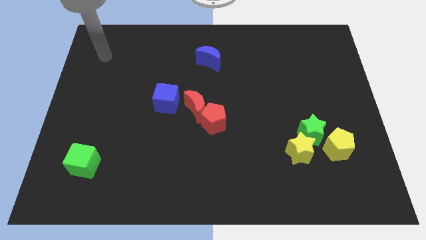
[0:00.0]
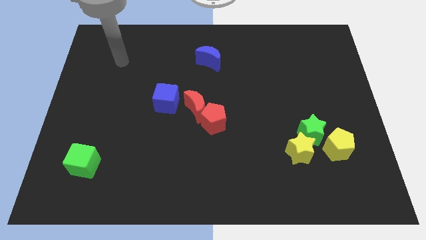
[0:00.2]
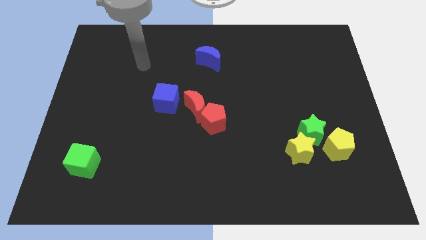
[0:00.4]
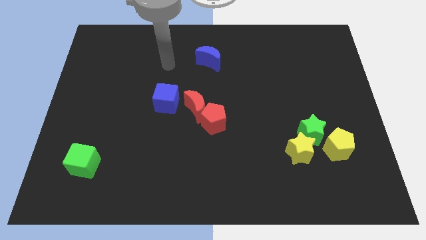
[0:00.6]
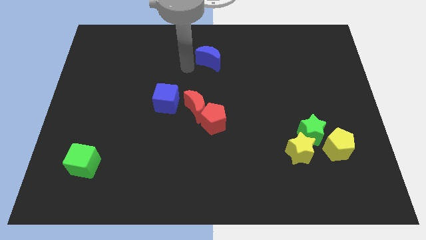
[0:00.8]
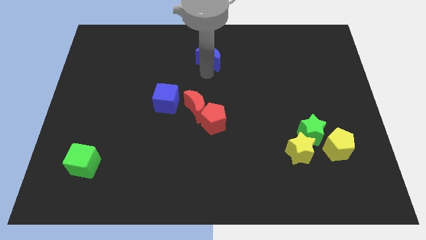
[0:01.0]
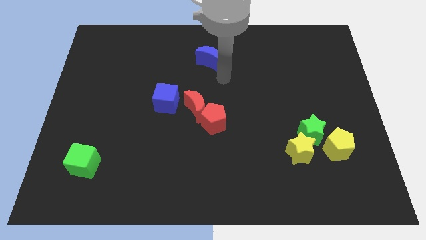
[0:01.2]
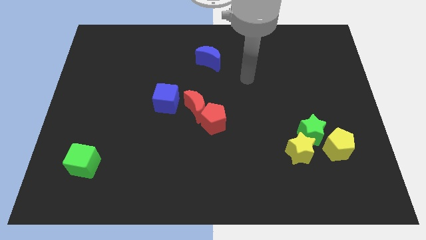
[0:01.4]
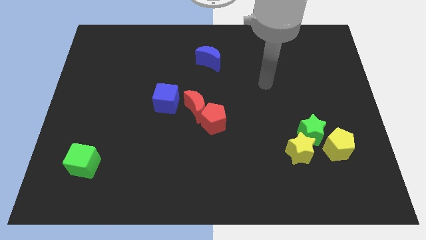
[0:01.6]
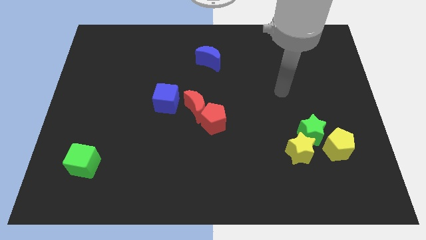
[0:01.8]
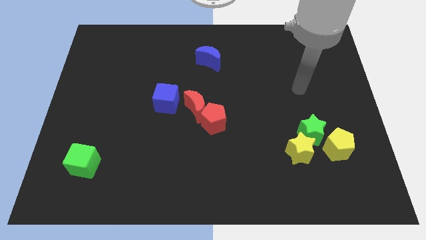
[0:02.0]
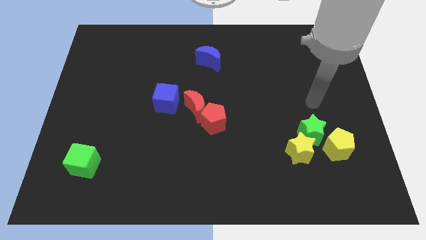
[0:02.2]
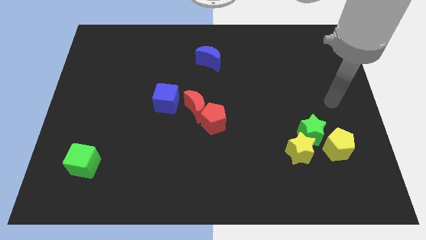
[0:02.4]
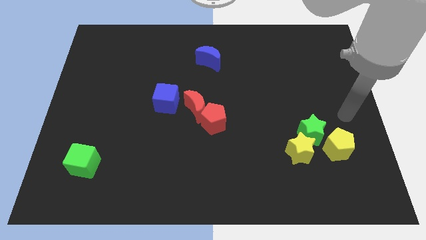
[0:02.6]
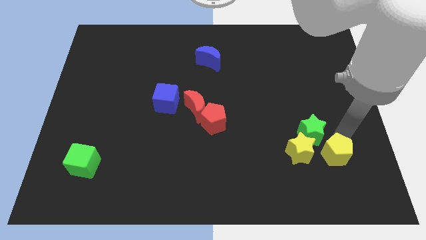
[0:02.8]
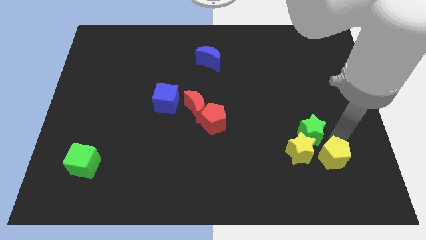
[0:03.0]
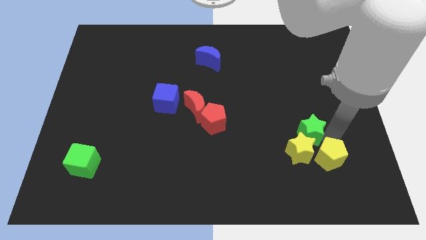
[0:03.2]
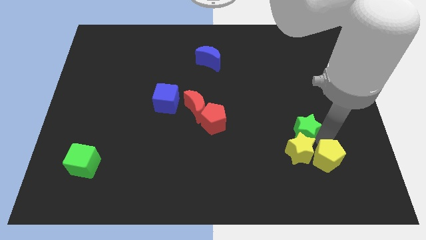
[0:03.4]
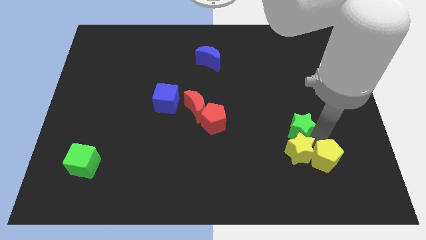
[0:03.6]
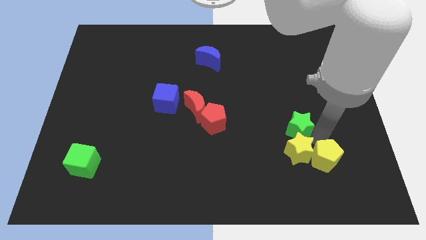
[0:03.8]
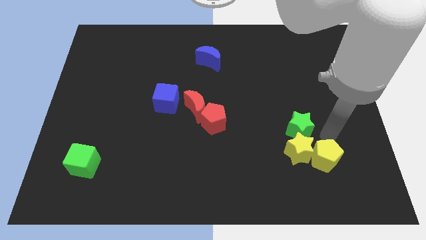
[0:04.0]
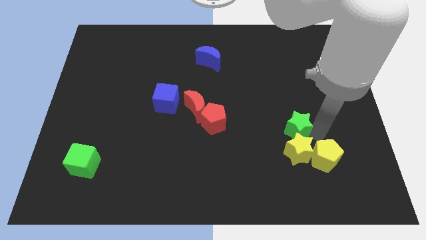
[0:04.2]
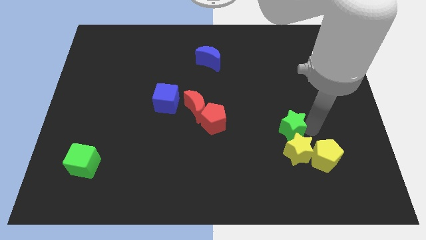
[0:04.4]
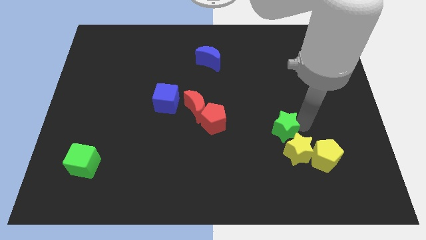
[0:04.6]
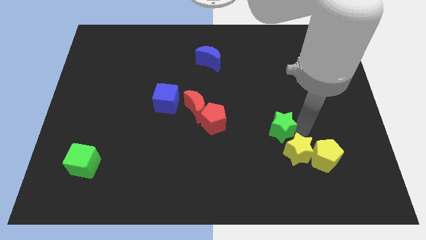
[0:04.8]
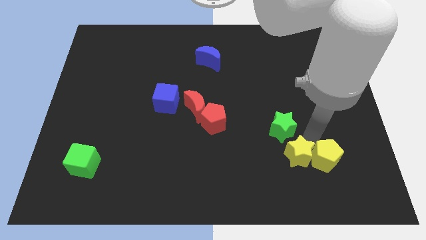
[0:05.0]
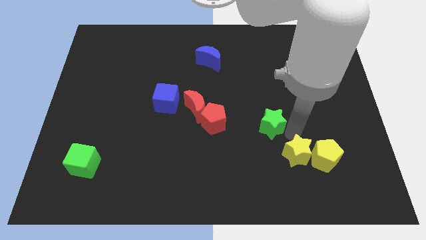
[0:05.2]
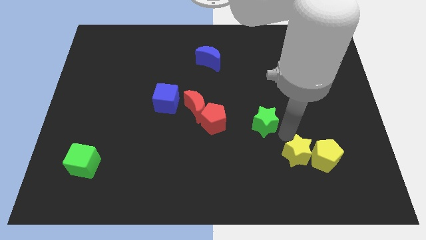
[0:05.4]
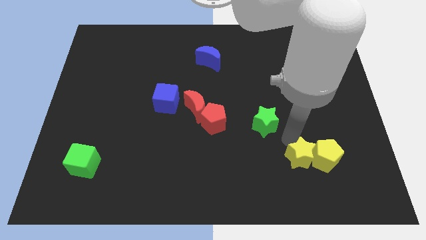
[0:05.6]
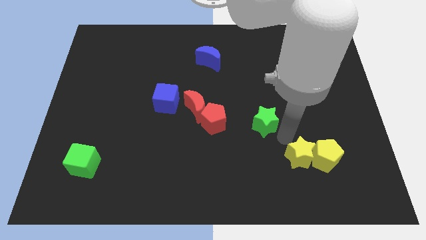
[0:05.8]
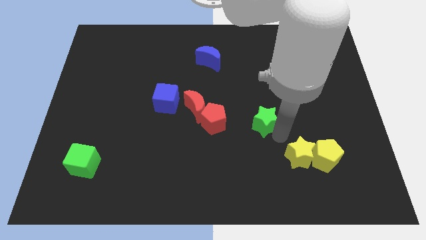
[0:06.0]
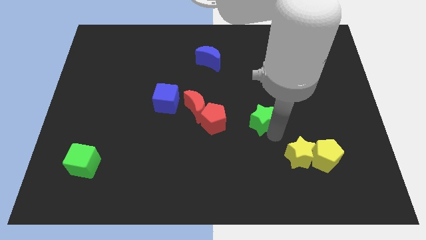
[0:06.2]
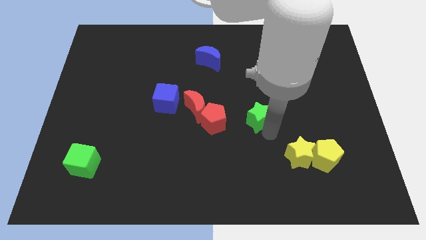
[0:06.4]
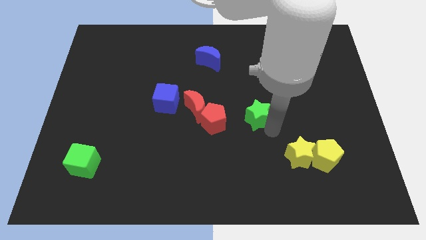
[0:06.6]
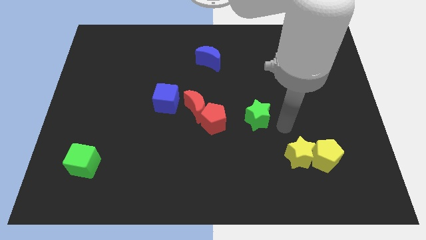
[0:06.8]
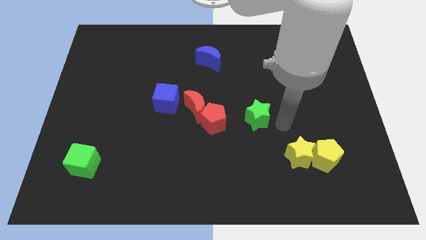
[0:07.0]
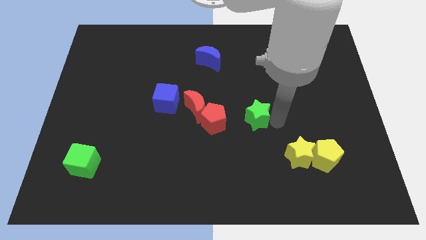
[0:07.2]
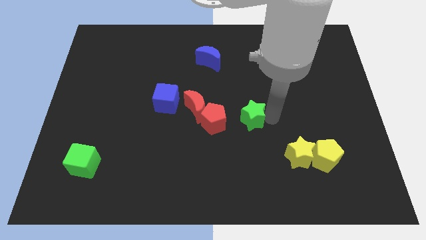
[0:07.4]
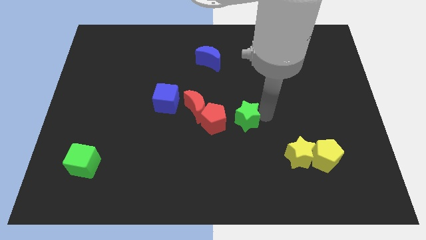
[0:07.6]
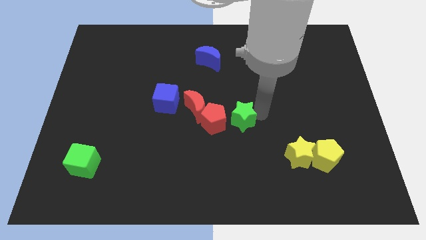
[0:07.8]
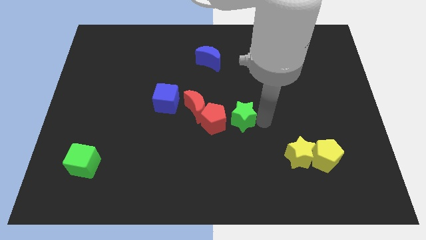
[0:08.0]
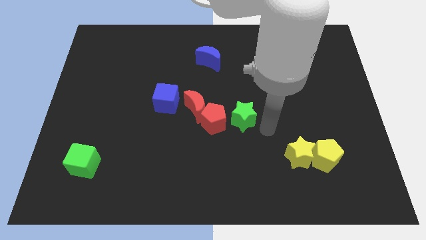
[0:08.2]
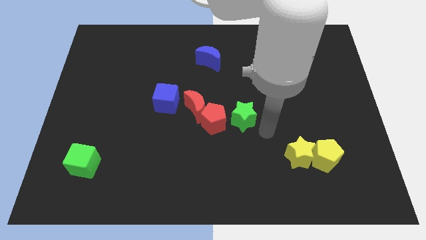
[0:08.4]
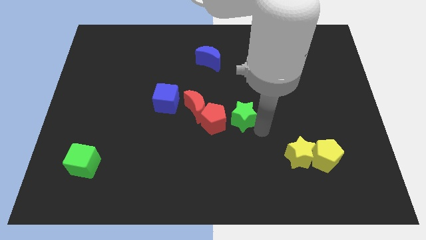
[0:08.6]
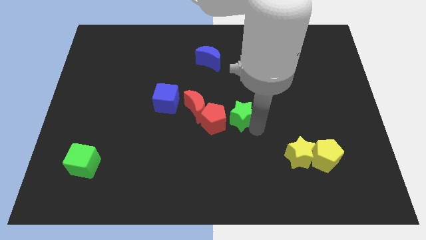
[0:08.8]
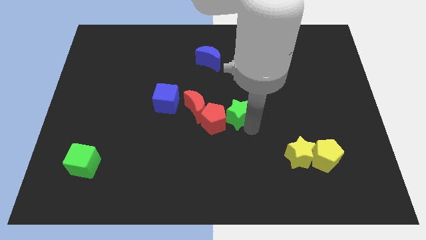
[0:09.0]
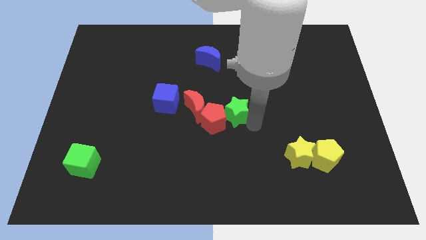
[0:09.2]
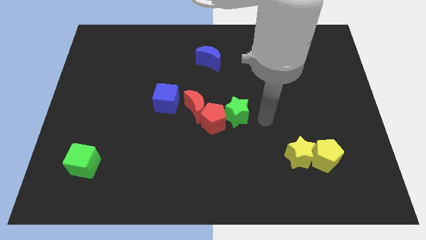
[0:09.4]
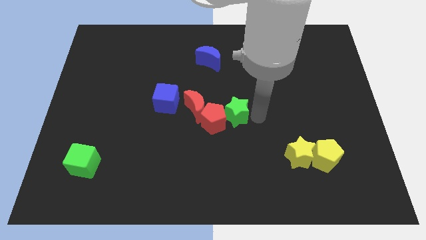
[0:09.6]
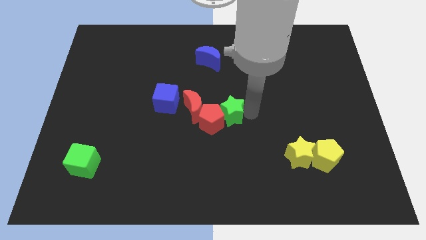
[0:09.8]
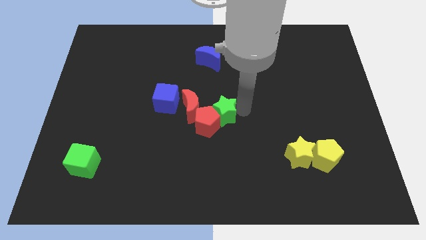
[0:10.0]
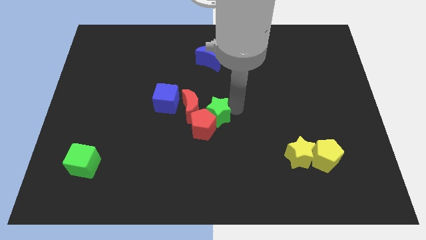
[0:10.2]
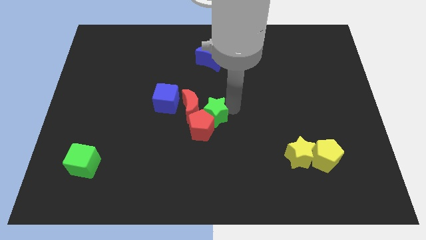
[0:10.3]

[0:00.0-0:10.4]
push the green star to the red moon

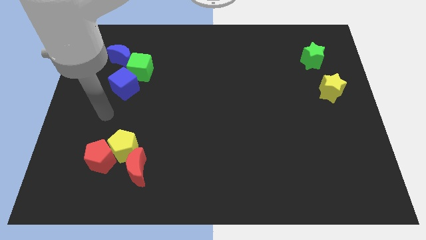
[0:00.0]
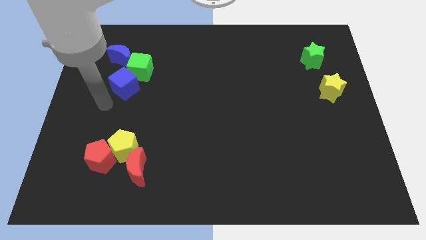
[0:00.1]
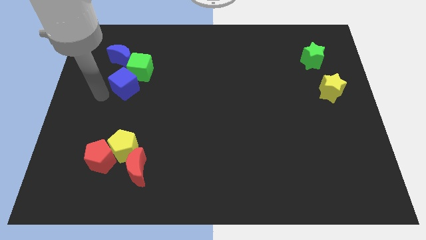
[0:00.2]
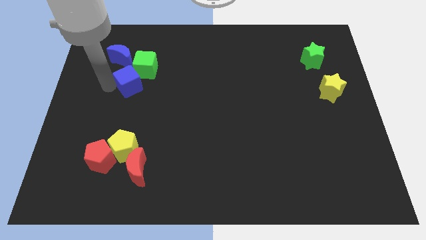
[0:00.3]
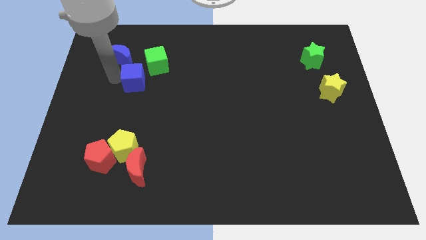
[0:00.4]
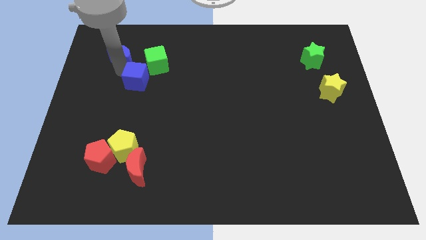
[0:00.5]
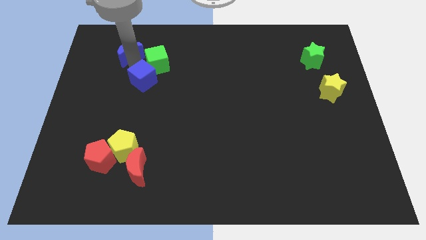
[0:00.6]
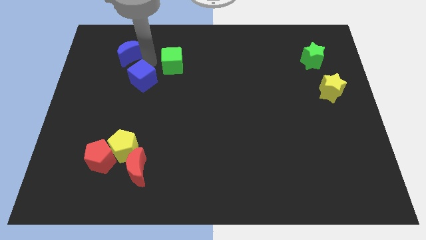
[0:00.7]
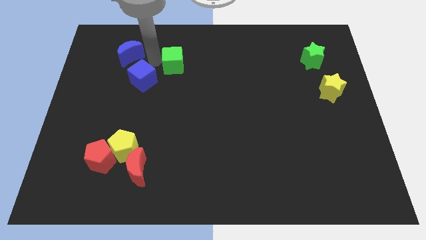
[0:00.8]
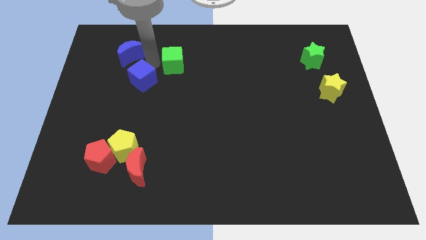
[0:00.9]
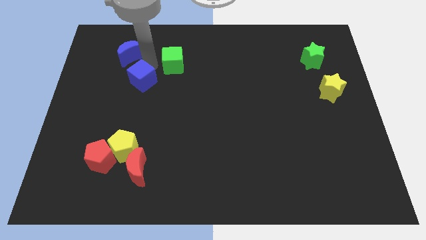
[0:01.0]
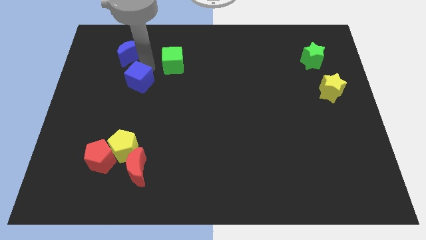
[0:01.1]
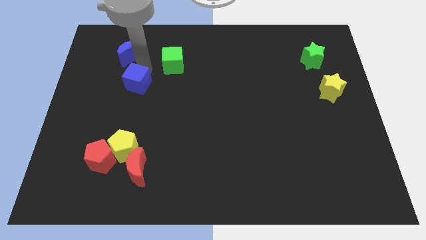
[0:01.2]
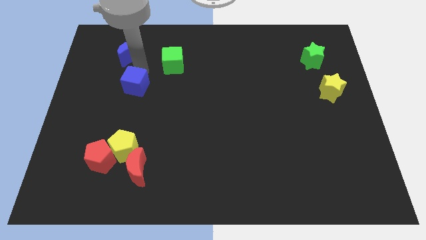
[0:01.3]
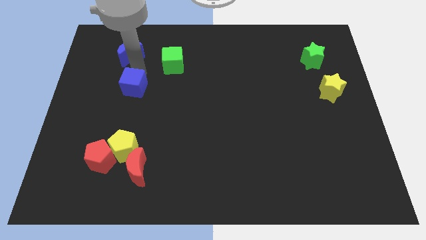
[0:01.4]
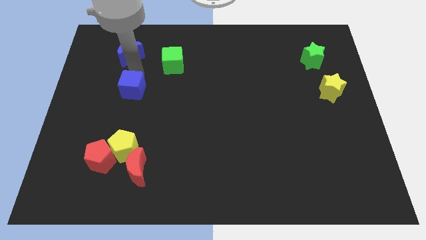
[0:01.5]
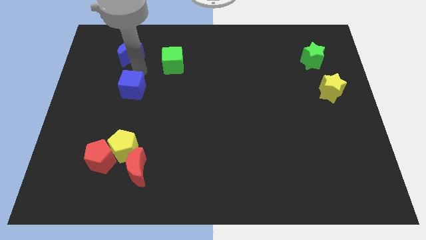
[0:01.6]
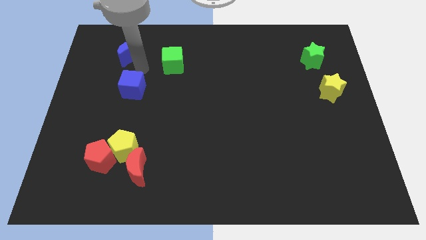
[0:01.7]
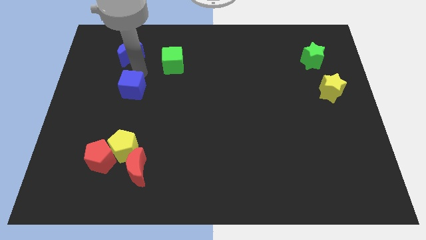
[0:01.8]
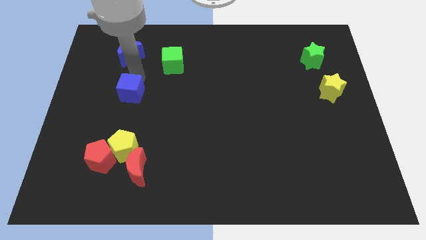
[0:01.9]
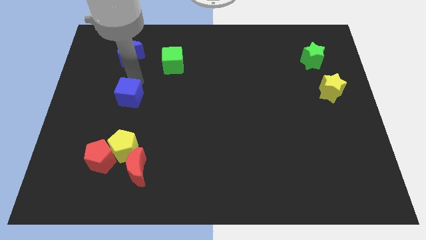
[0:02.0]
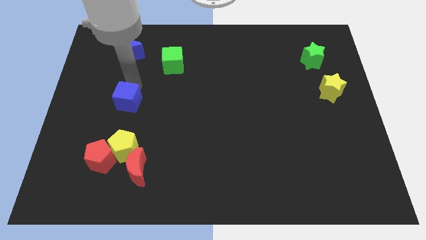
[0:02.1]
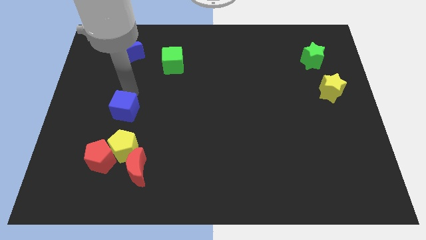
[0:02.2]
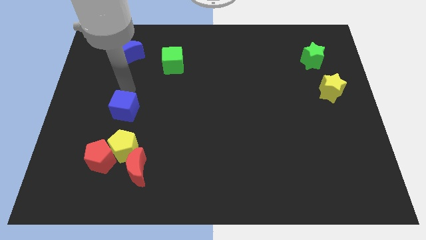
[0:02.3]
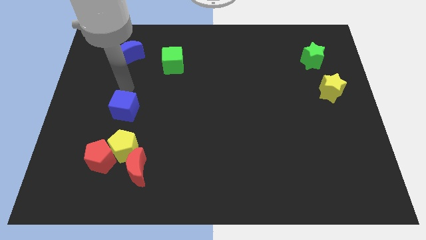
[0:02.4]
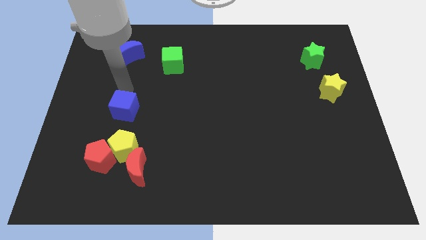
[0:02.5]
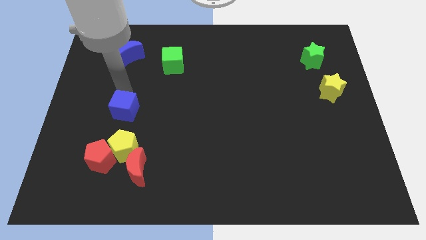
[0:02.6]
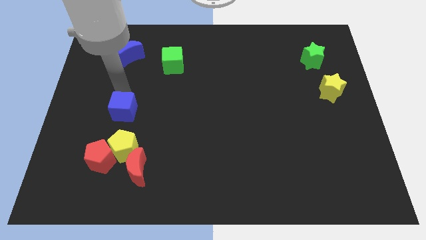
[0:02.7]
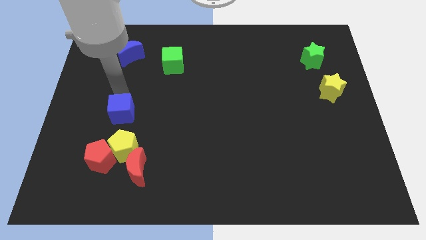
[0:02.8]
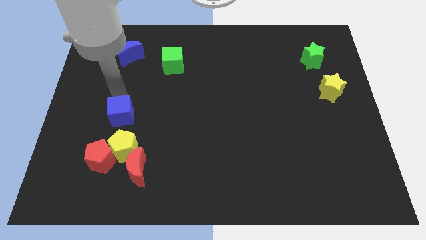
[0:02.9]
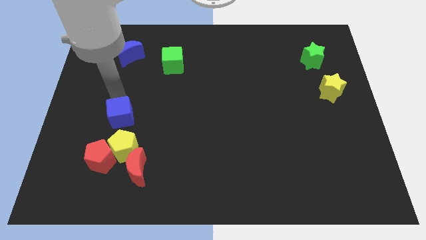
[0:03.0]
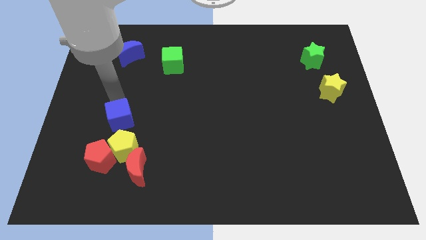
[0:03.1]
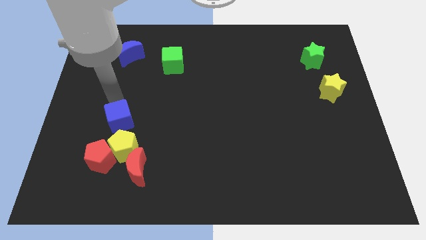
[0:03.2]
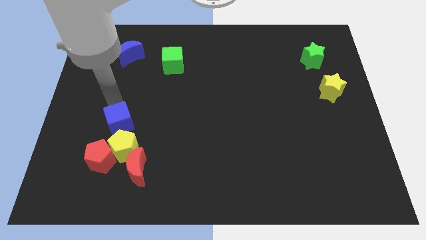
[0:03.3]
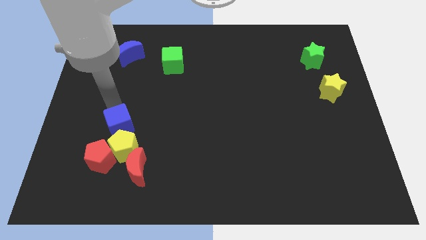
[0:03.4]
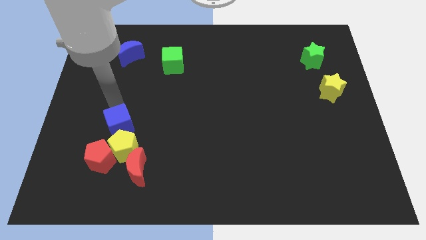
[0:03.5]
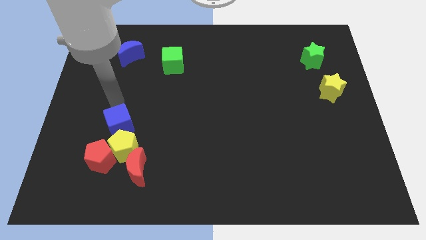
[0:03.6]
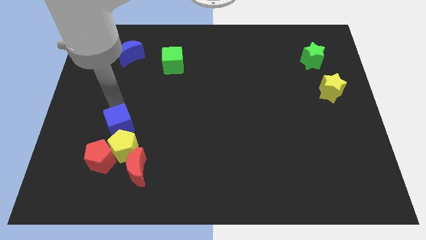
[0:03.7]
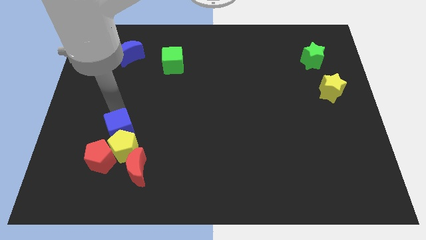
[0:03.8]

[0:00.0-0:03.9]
move the blue cube next to the yellow pentagon
